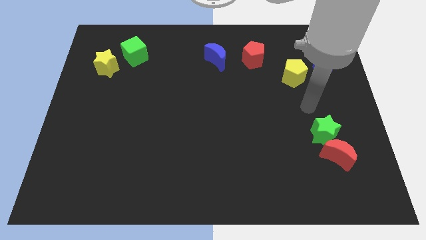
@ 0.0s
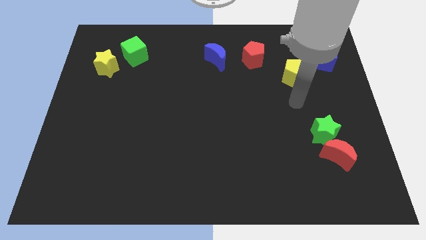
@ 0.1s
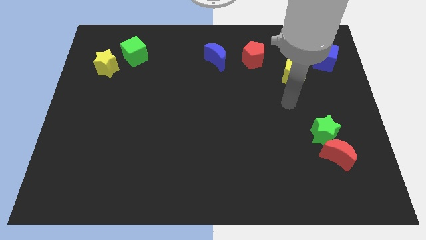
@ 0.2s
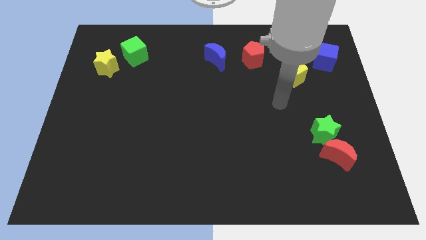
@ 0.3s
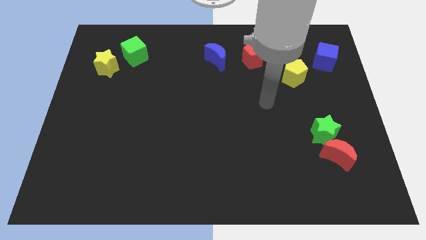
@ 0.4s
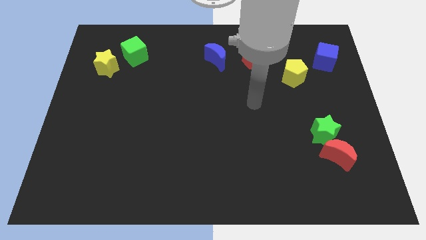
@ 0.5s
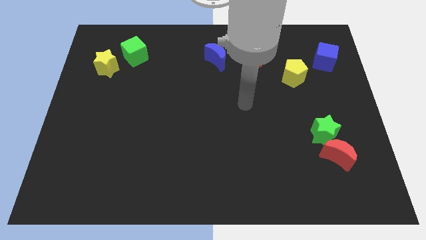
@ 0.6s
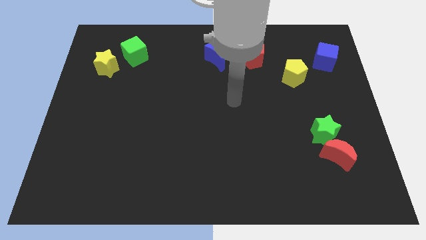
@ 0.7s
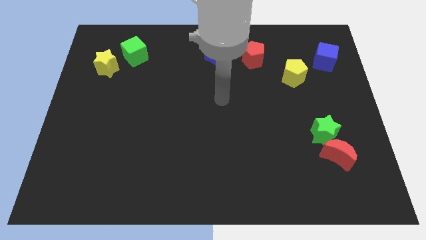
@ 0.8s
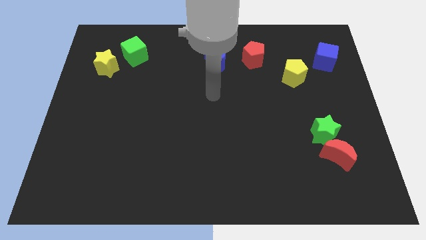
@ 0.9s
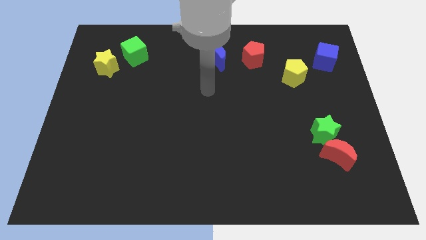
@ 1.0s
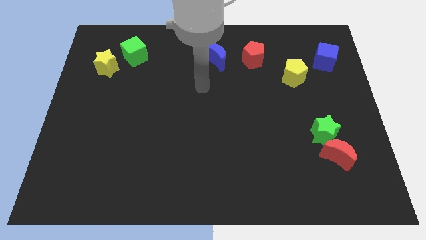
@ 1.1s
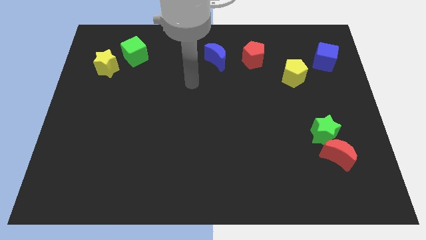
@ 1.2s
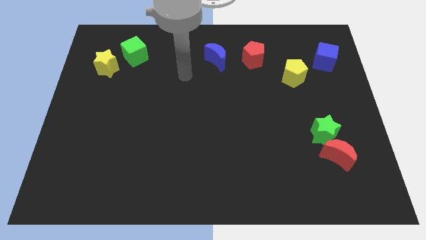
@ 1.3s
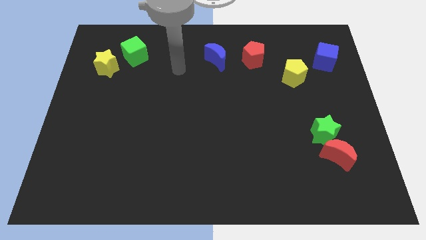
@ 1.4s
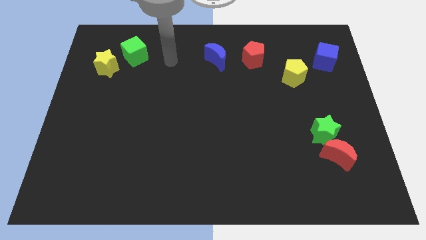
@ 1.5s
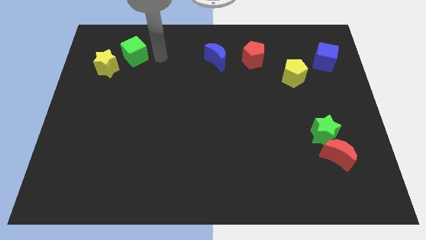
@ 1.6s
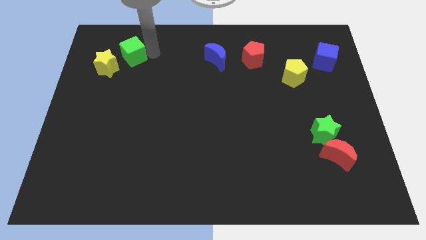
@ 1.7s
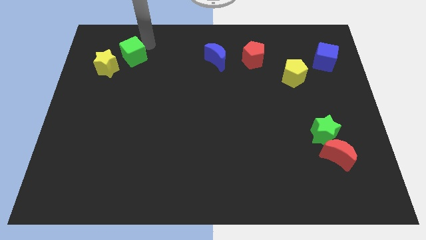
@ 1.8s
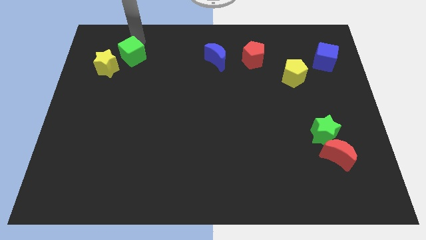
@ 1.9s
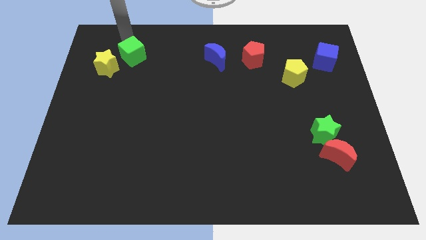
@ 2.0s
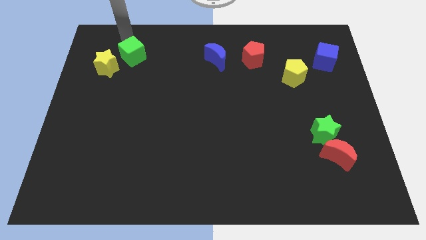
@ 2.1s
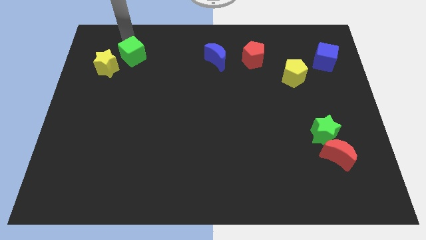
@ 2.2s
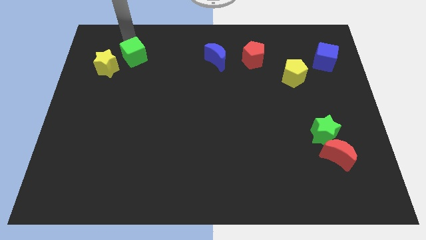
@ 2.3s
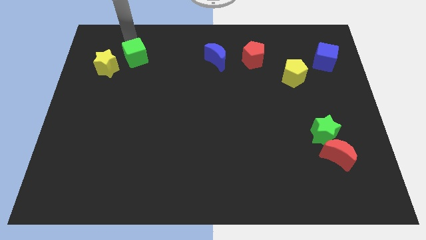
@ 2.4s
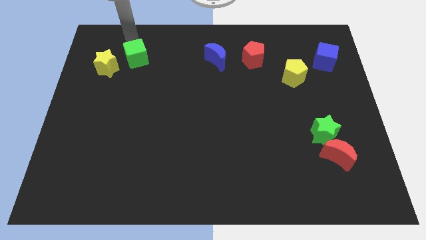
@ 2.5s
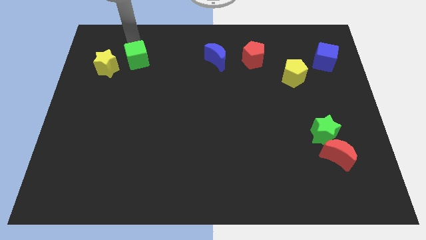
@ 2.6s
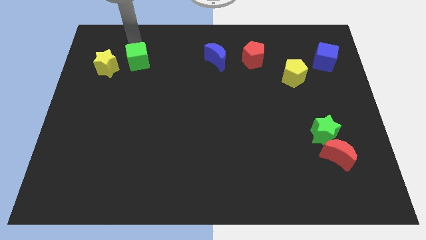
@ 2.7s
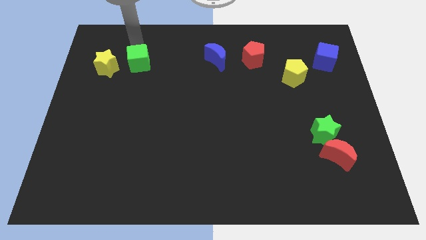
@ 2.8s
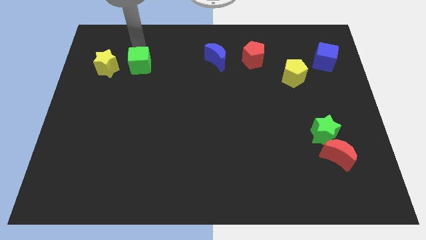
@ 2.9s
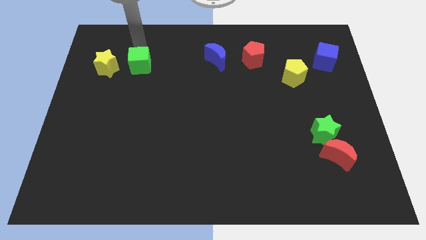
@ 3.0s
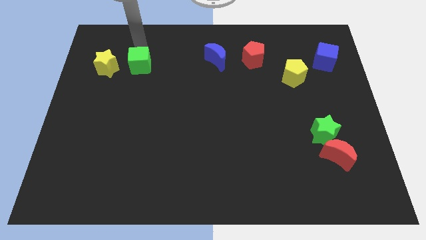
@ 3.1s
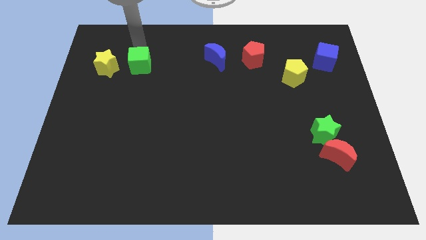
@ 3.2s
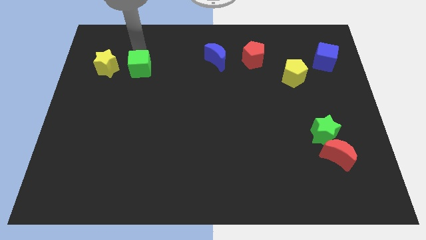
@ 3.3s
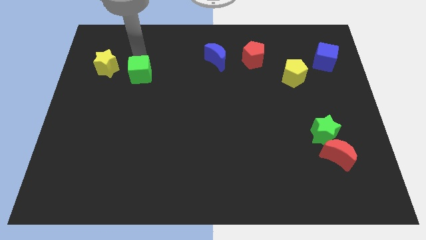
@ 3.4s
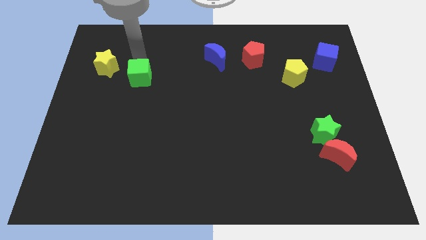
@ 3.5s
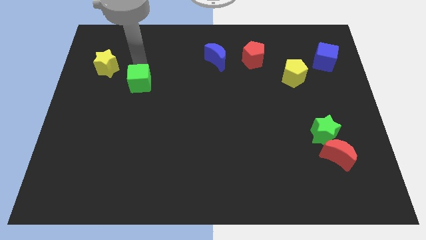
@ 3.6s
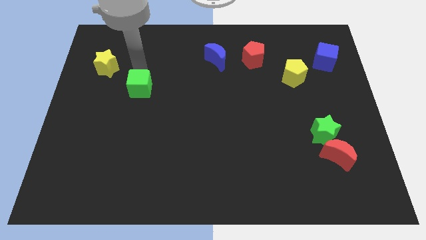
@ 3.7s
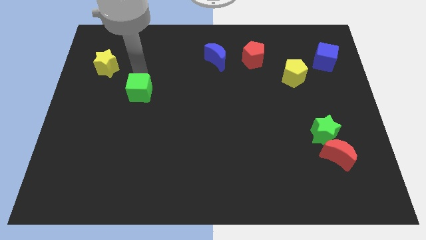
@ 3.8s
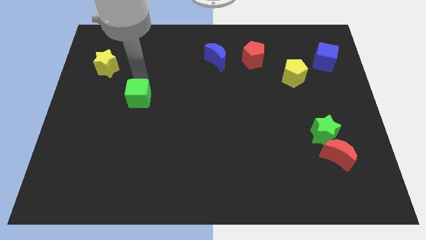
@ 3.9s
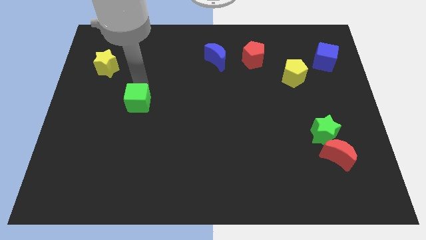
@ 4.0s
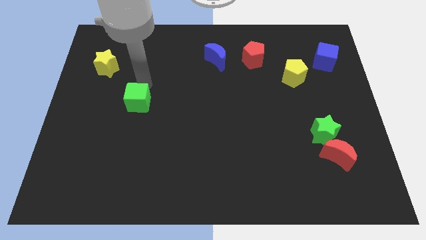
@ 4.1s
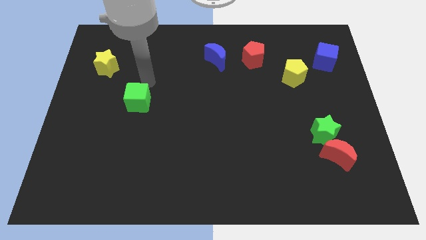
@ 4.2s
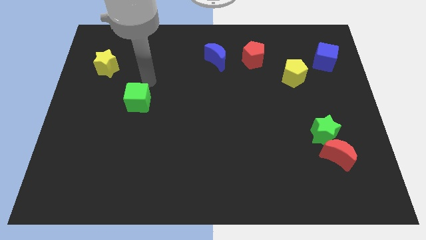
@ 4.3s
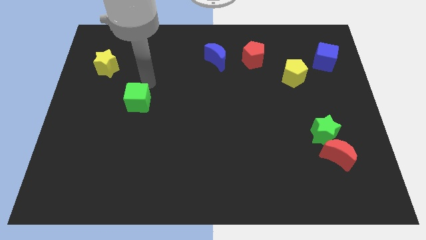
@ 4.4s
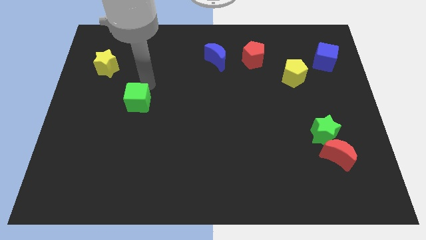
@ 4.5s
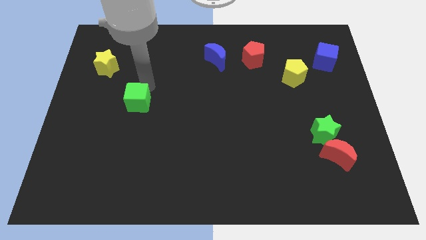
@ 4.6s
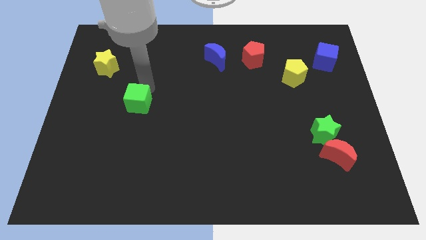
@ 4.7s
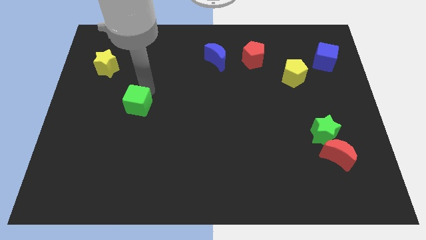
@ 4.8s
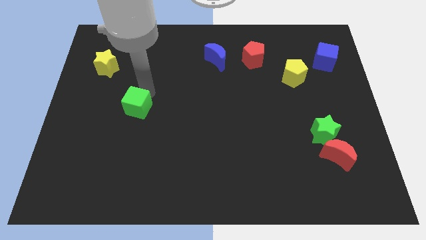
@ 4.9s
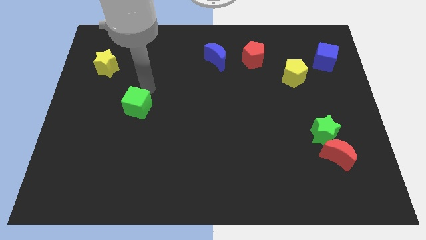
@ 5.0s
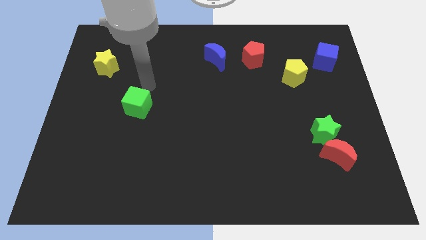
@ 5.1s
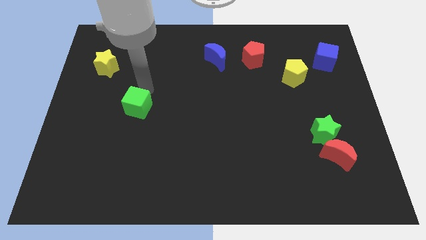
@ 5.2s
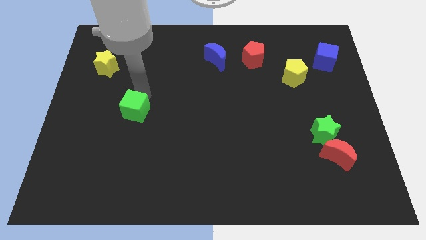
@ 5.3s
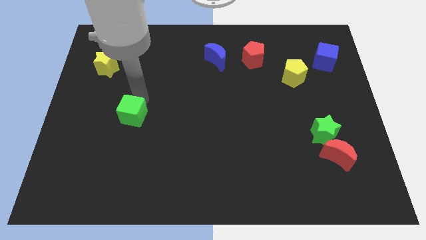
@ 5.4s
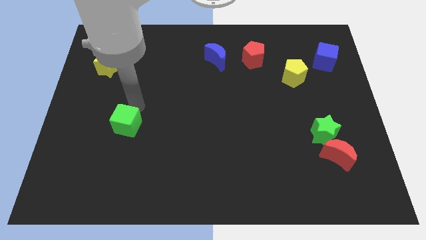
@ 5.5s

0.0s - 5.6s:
slide the green cube downwards

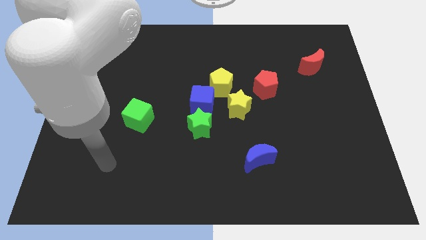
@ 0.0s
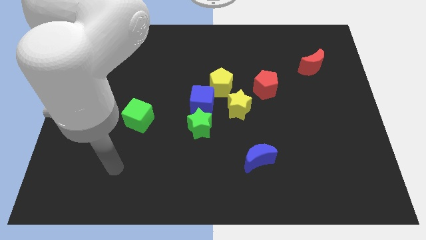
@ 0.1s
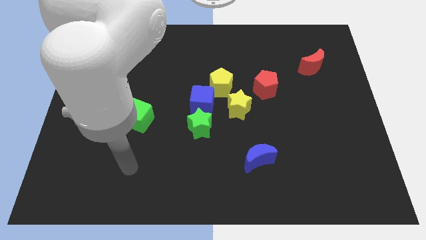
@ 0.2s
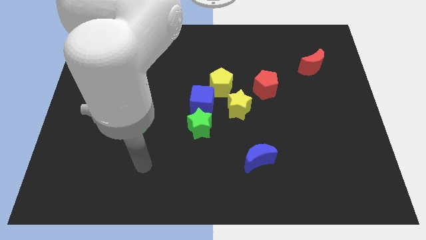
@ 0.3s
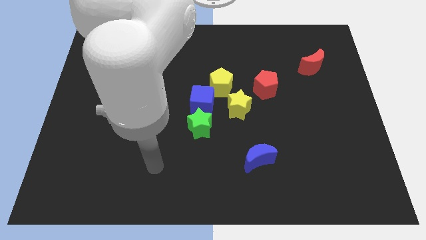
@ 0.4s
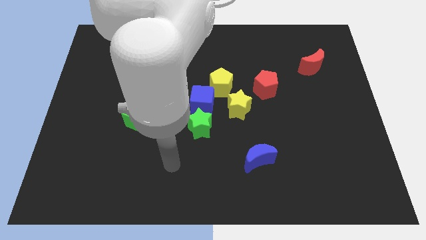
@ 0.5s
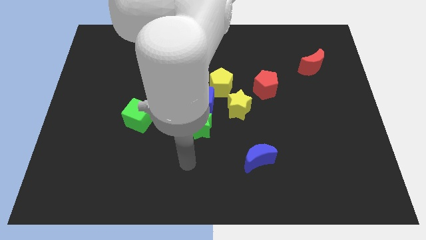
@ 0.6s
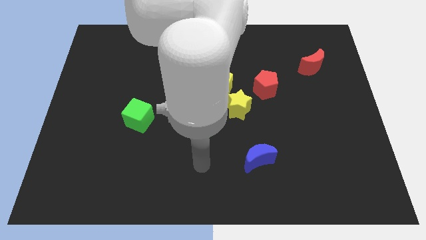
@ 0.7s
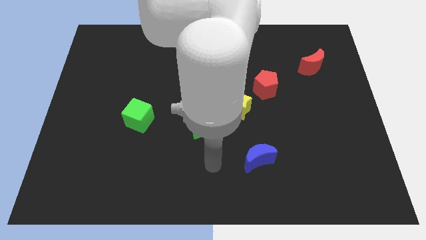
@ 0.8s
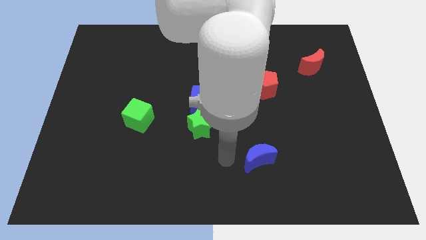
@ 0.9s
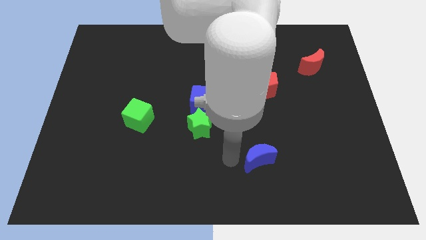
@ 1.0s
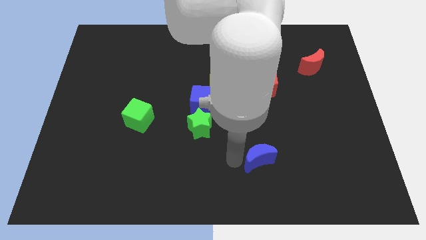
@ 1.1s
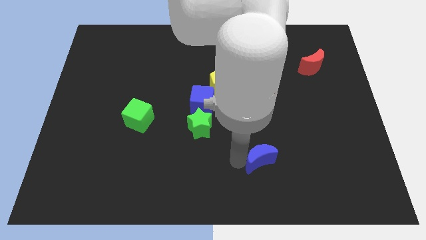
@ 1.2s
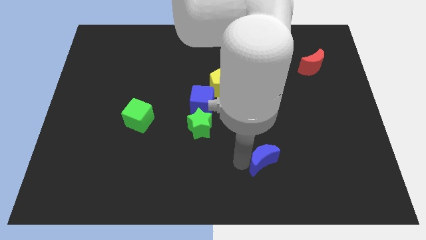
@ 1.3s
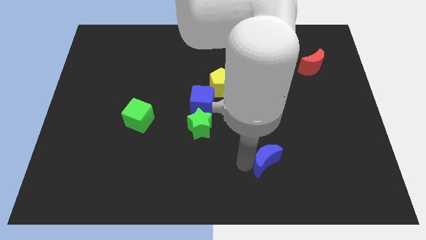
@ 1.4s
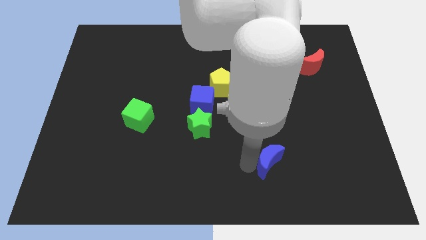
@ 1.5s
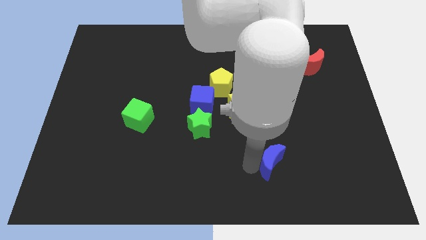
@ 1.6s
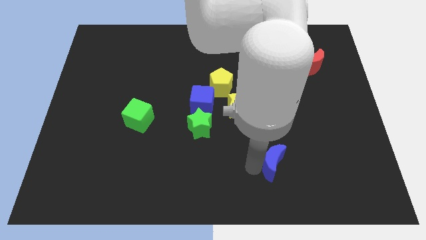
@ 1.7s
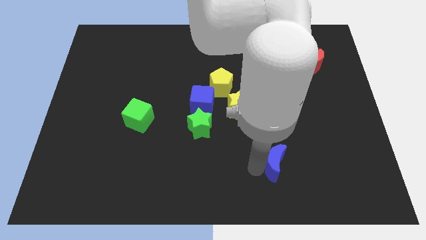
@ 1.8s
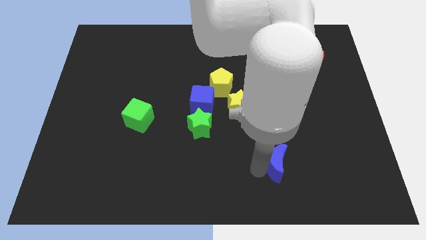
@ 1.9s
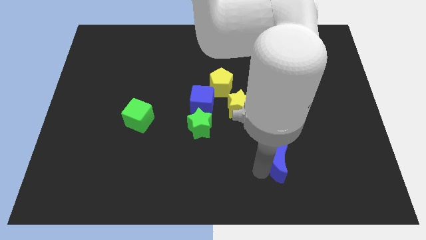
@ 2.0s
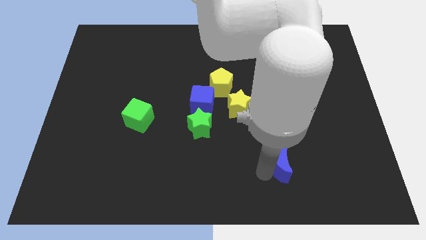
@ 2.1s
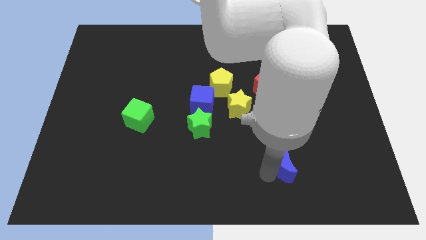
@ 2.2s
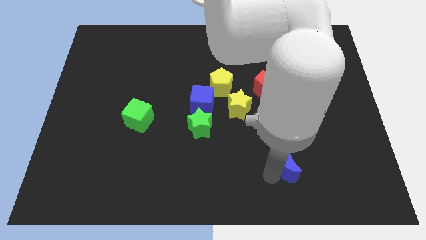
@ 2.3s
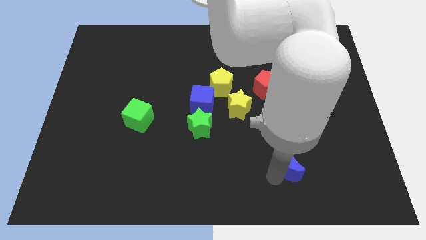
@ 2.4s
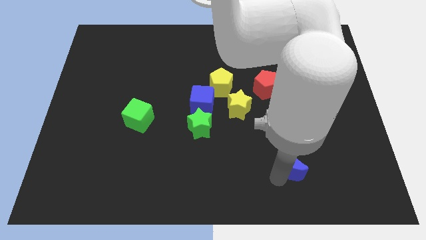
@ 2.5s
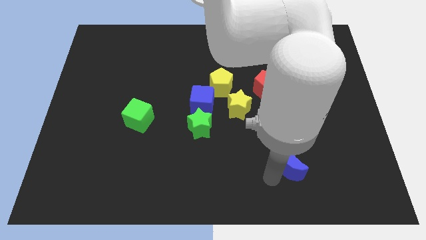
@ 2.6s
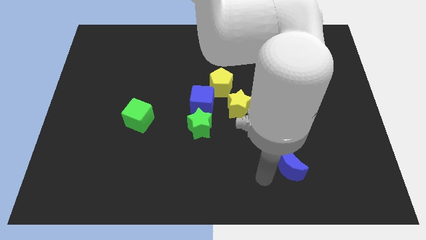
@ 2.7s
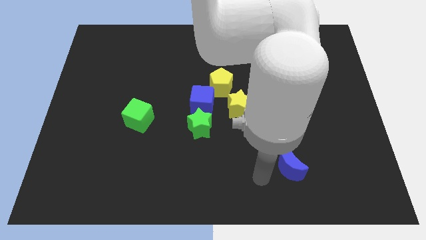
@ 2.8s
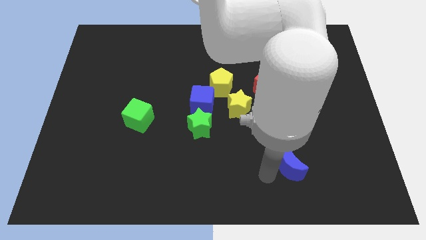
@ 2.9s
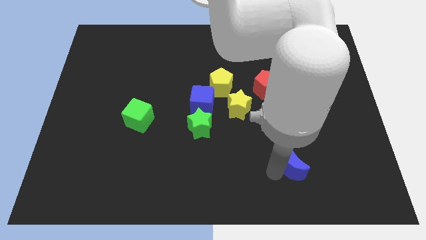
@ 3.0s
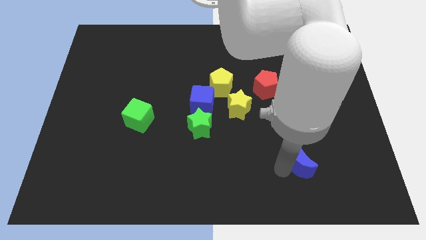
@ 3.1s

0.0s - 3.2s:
slide the blue moon right a little
